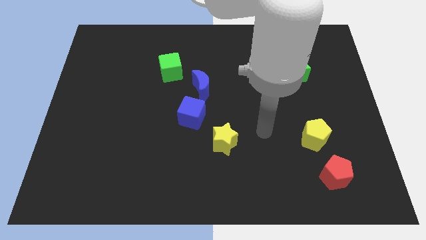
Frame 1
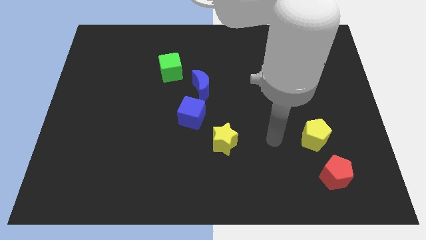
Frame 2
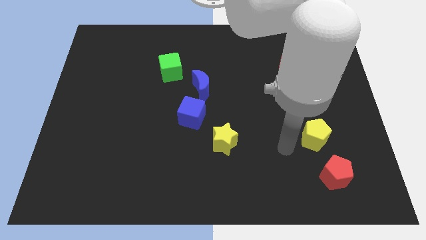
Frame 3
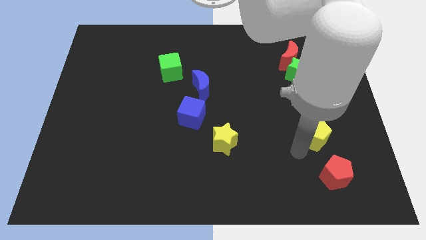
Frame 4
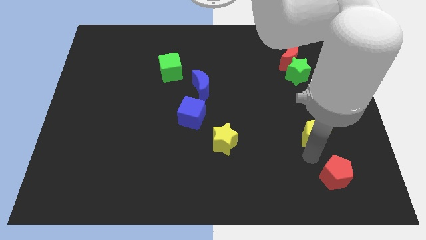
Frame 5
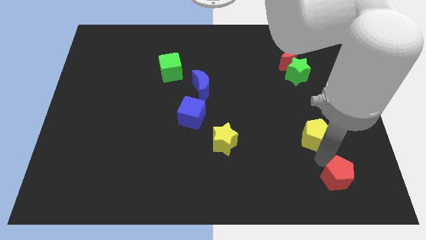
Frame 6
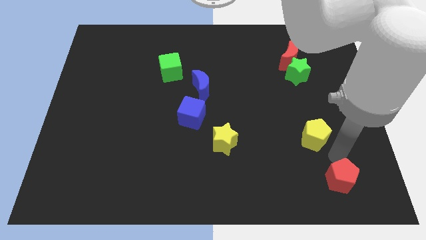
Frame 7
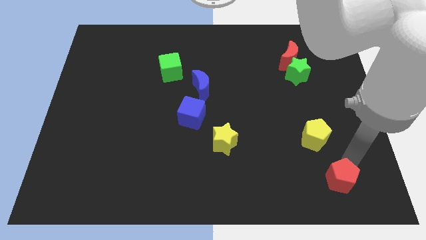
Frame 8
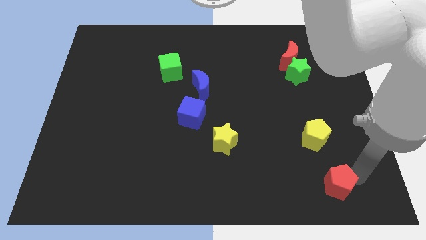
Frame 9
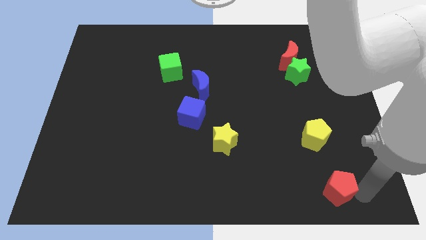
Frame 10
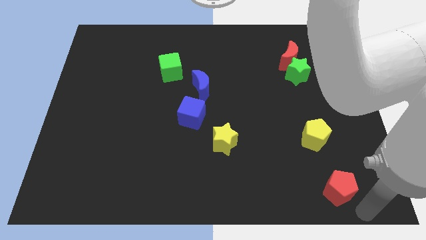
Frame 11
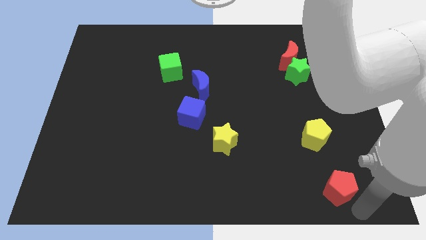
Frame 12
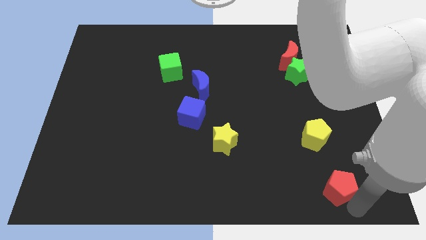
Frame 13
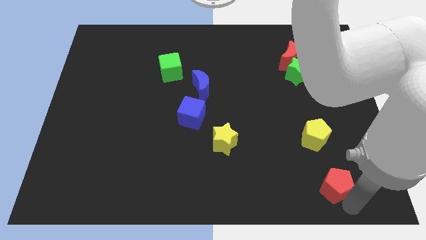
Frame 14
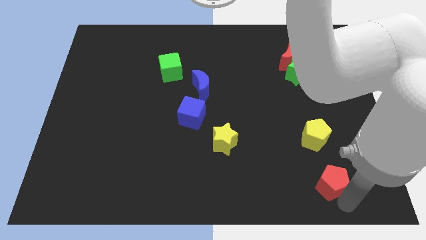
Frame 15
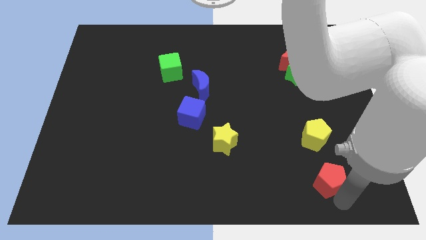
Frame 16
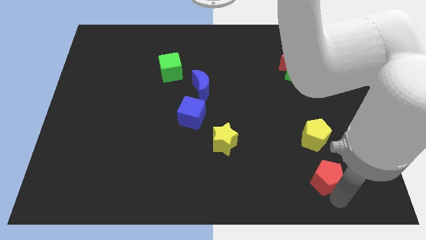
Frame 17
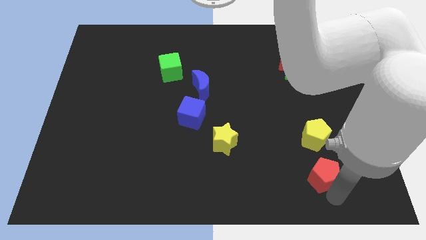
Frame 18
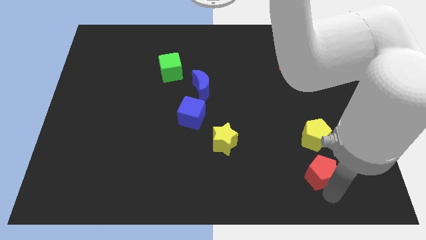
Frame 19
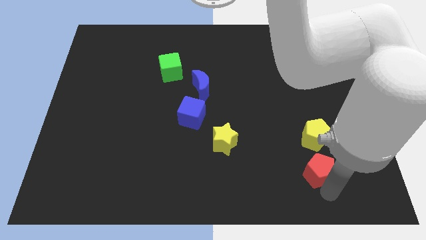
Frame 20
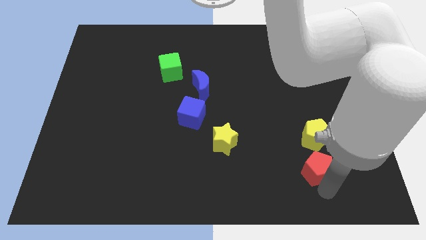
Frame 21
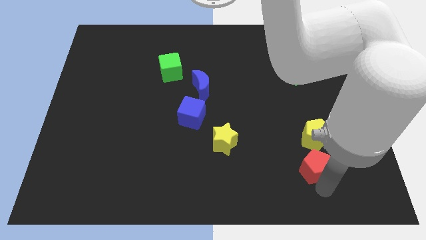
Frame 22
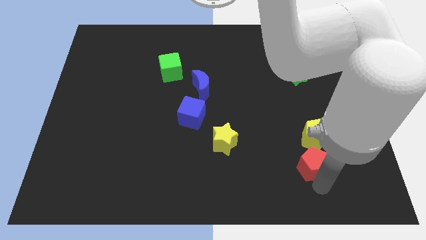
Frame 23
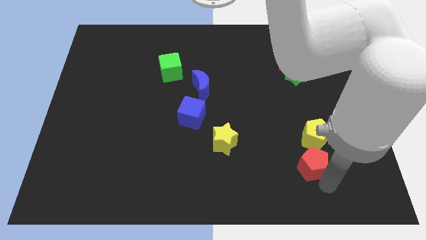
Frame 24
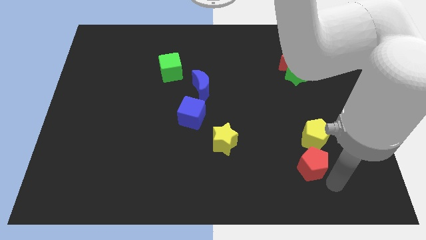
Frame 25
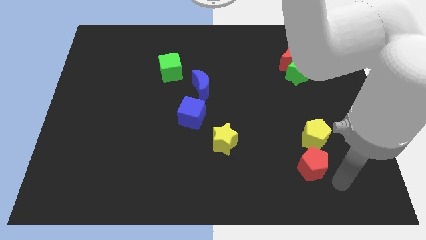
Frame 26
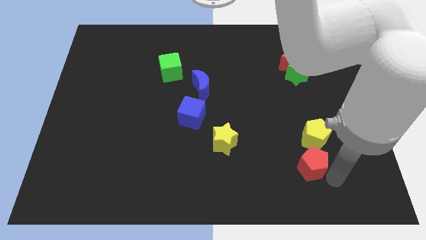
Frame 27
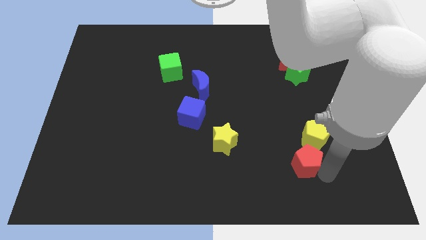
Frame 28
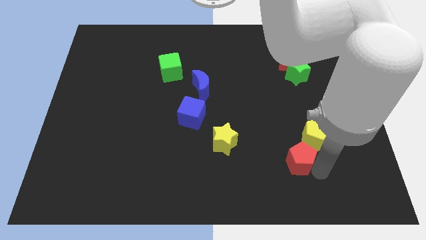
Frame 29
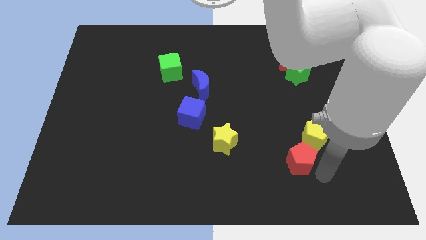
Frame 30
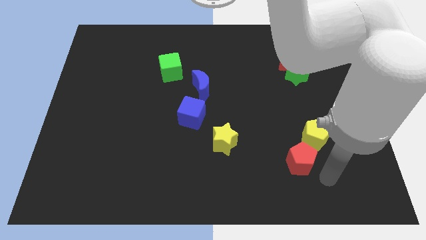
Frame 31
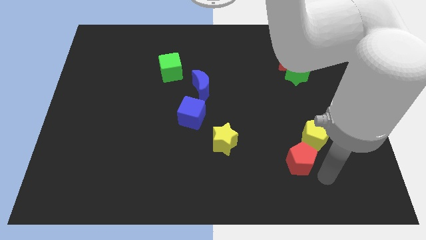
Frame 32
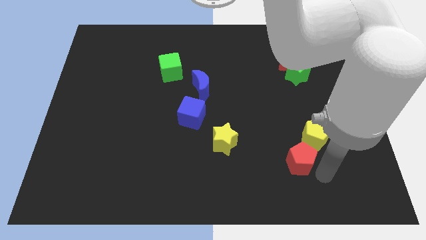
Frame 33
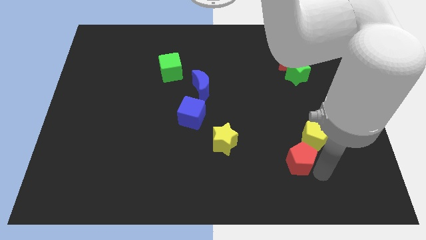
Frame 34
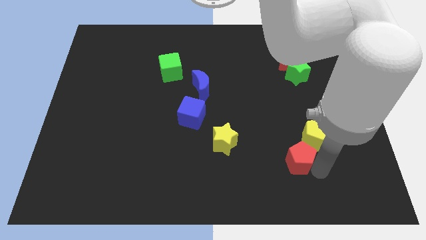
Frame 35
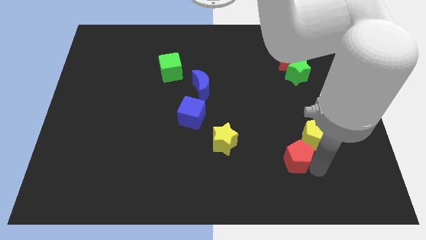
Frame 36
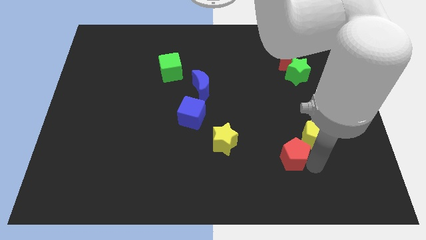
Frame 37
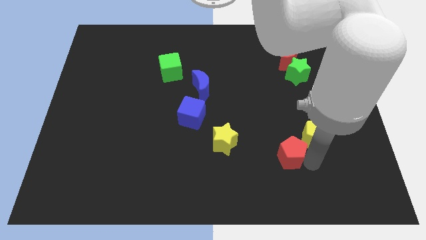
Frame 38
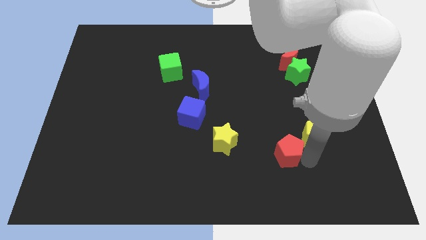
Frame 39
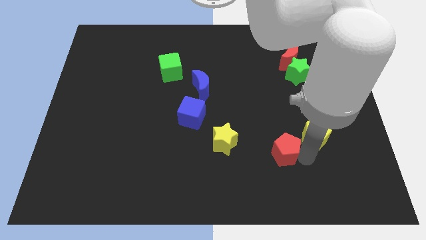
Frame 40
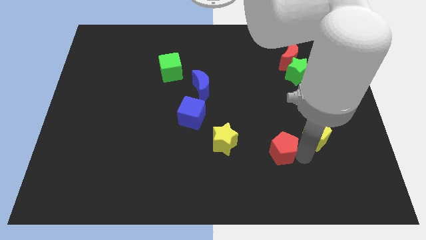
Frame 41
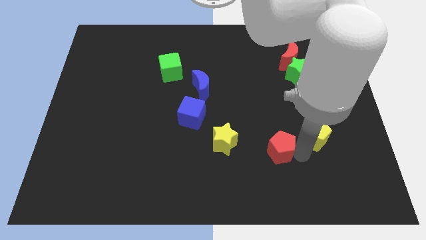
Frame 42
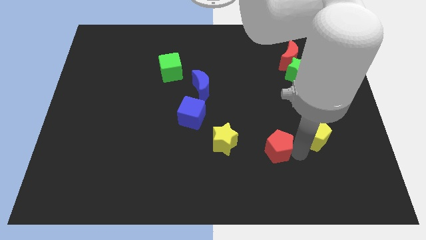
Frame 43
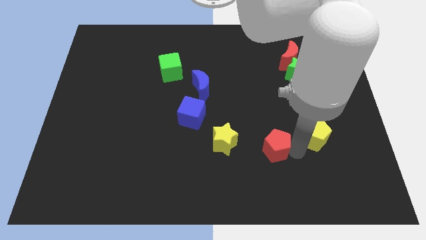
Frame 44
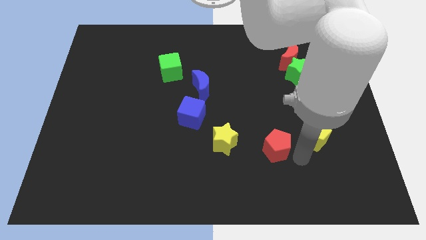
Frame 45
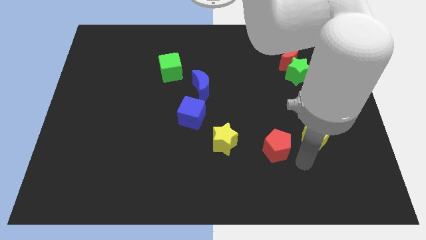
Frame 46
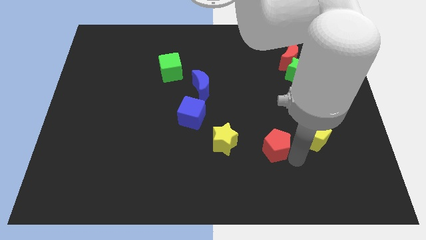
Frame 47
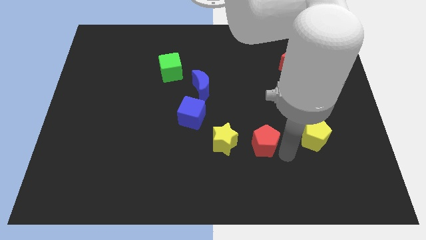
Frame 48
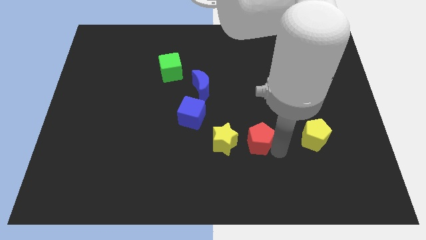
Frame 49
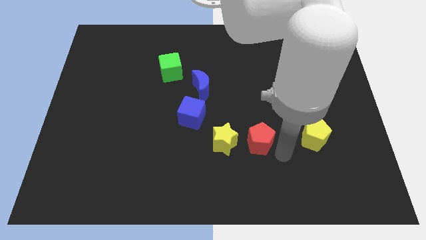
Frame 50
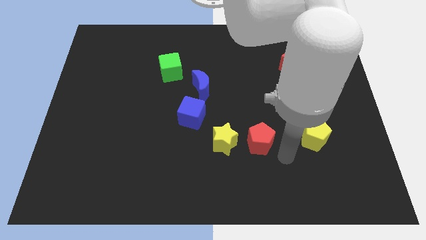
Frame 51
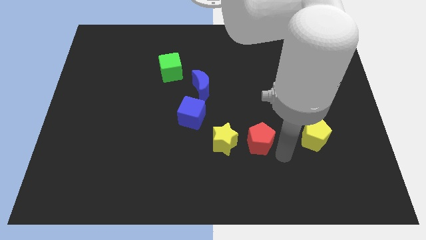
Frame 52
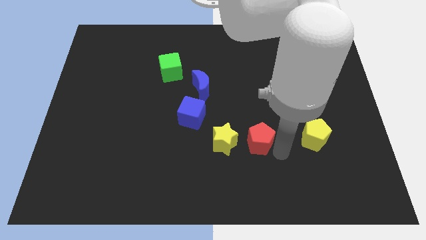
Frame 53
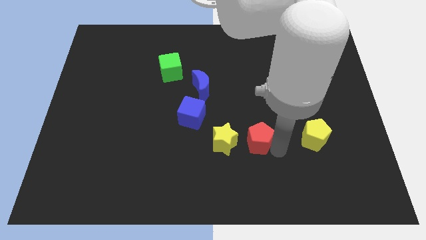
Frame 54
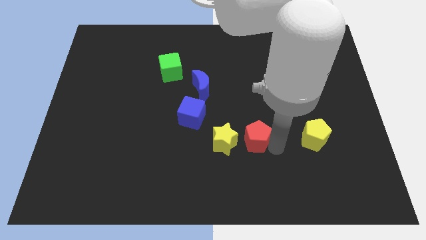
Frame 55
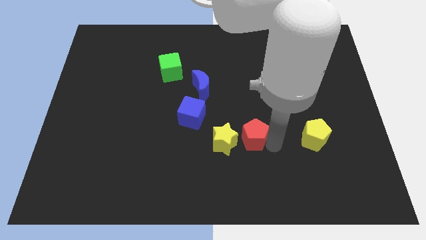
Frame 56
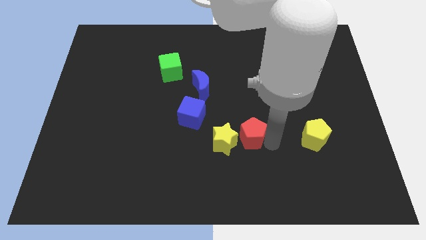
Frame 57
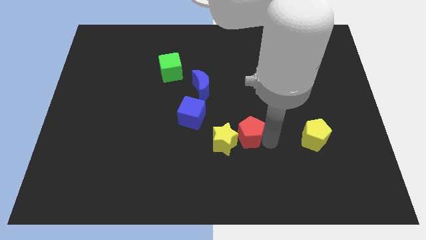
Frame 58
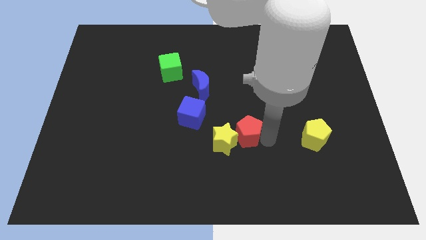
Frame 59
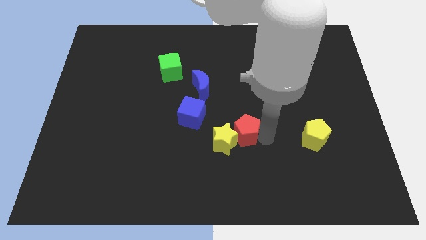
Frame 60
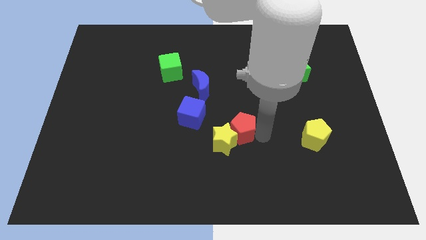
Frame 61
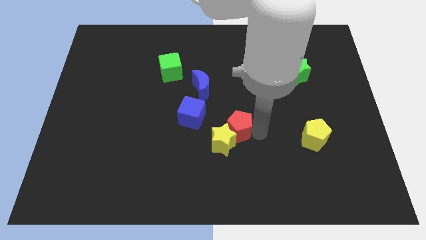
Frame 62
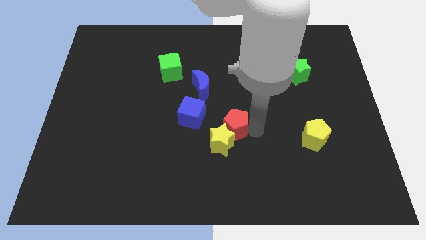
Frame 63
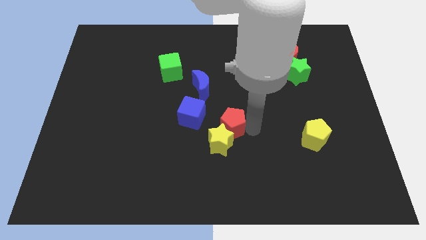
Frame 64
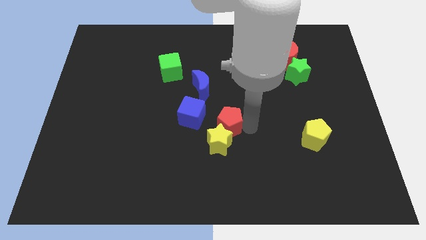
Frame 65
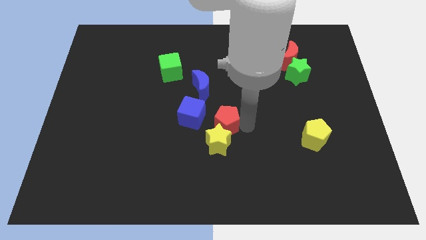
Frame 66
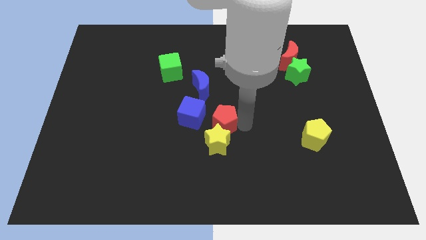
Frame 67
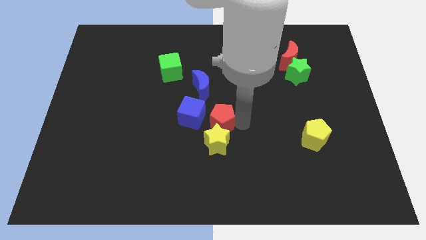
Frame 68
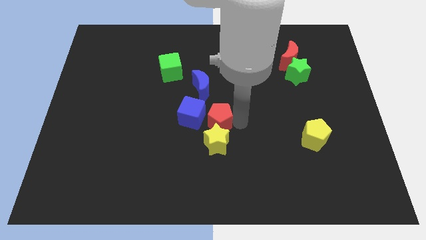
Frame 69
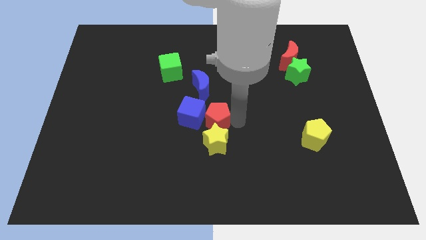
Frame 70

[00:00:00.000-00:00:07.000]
put the red pentagon to the blue cube
